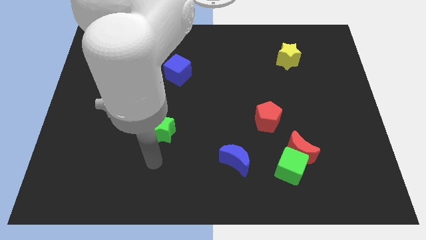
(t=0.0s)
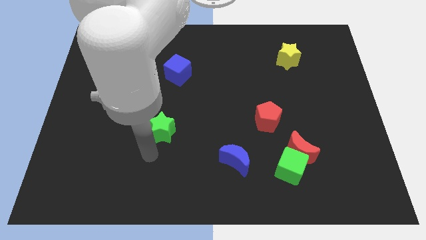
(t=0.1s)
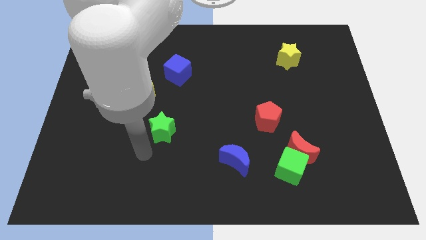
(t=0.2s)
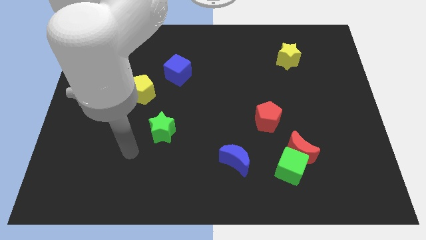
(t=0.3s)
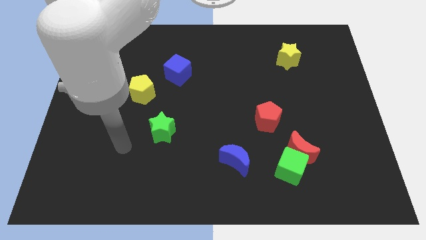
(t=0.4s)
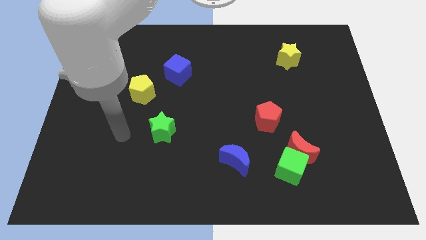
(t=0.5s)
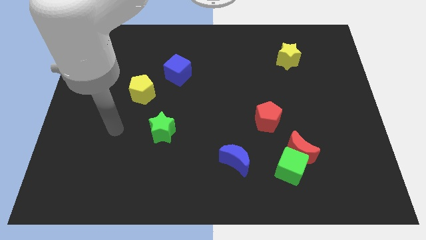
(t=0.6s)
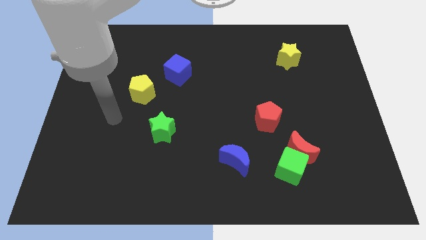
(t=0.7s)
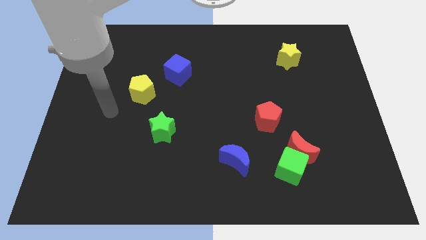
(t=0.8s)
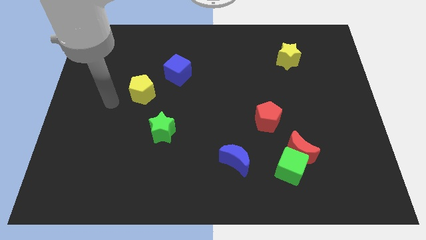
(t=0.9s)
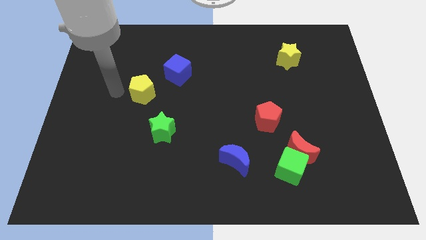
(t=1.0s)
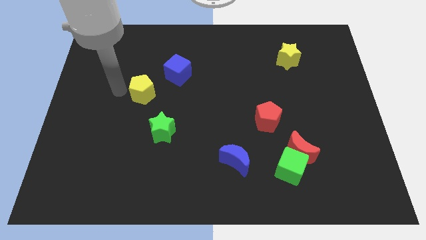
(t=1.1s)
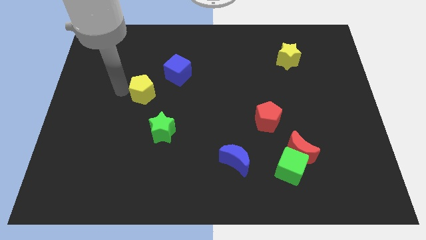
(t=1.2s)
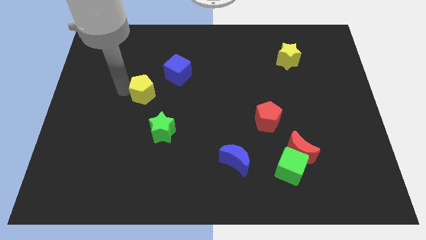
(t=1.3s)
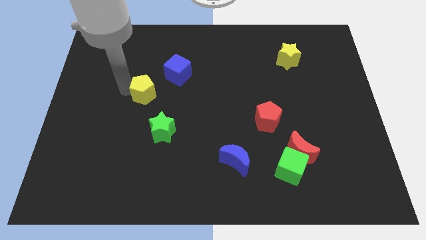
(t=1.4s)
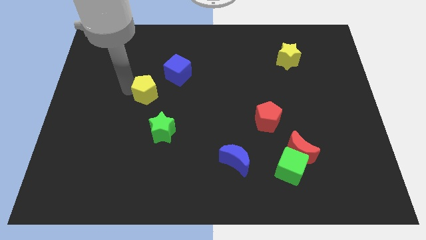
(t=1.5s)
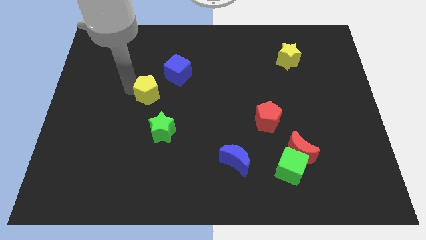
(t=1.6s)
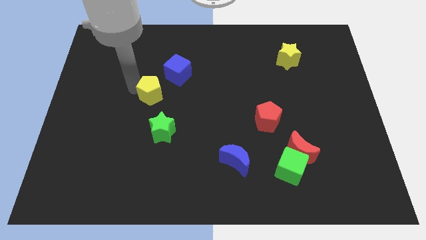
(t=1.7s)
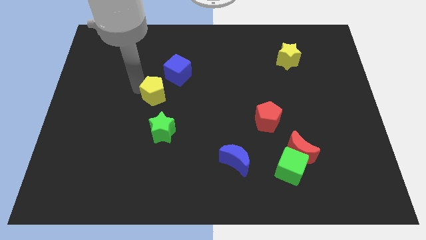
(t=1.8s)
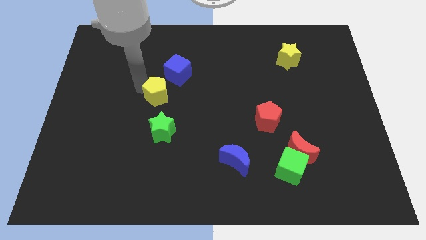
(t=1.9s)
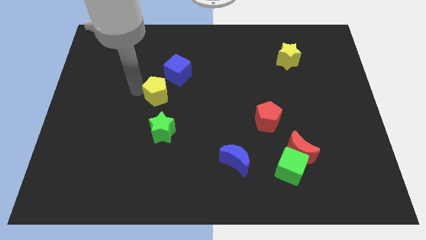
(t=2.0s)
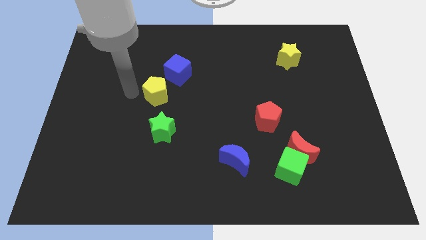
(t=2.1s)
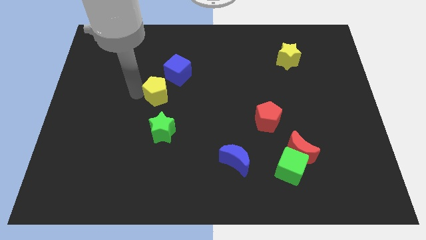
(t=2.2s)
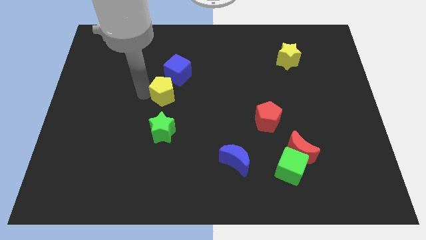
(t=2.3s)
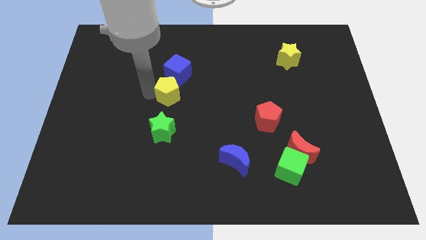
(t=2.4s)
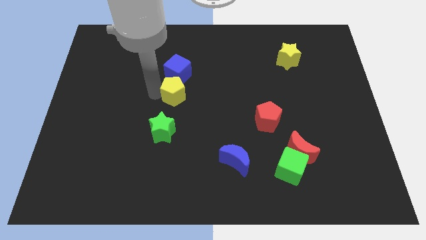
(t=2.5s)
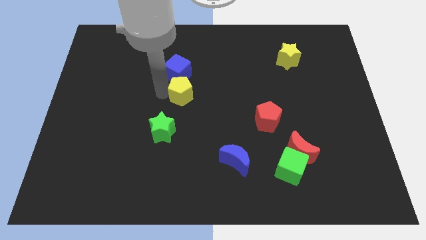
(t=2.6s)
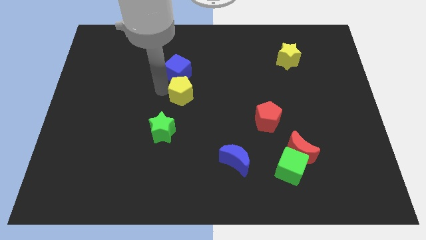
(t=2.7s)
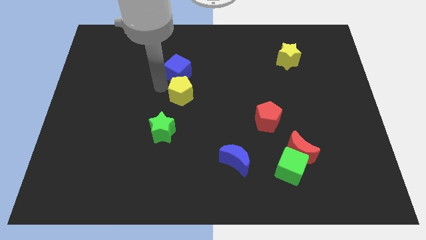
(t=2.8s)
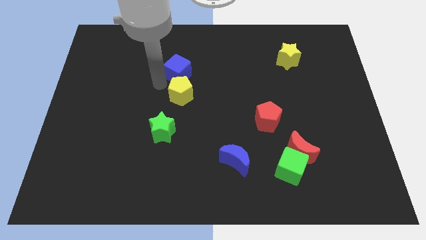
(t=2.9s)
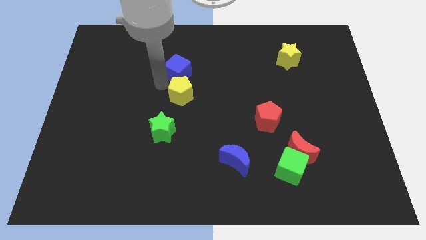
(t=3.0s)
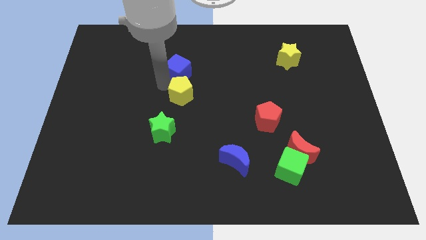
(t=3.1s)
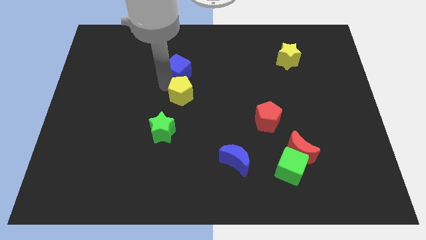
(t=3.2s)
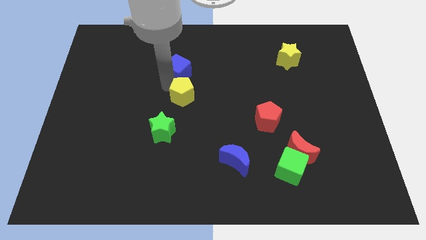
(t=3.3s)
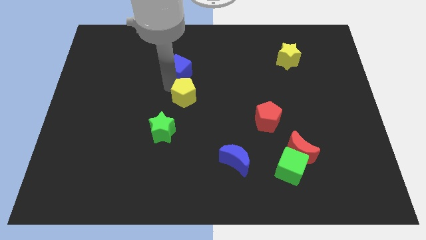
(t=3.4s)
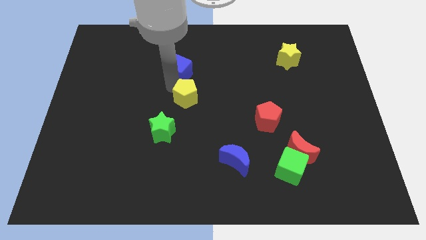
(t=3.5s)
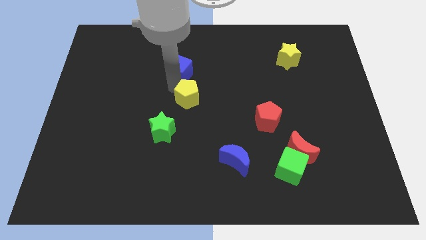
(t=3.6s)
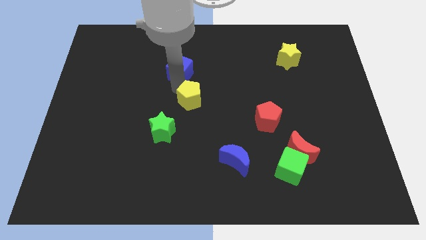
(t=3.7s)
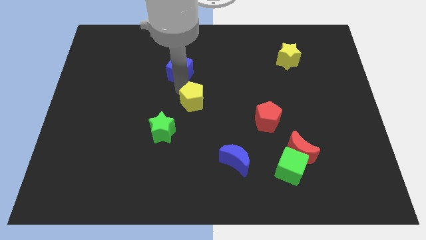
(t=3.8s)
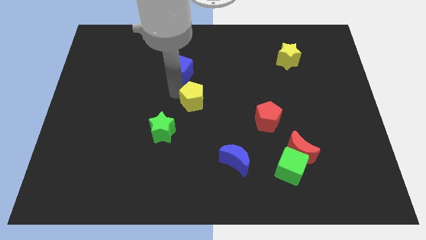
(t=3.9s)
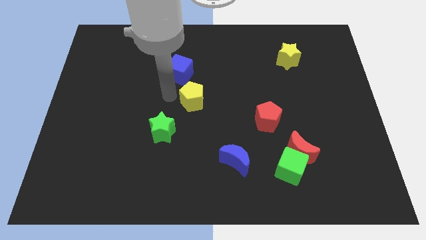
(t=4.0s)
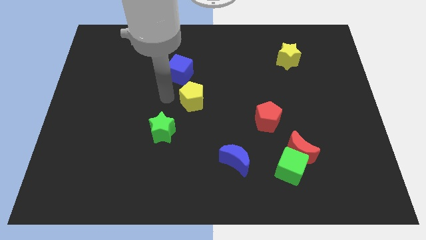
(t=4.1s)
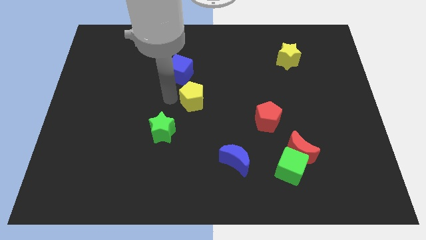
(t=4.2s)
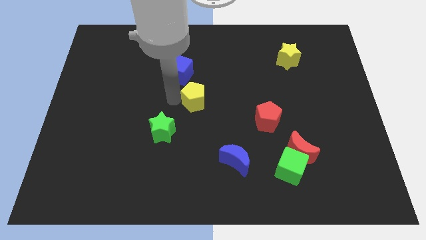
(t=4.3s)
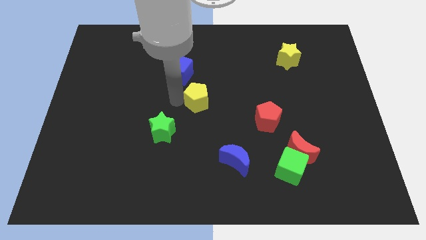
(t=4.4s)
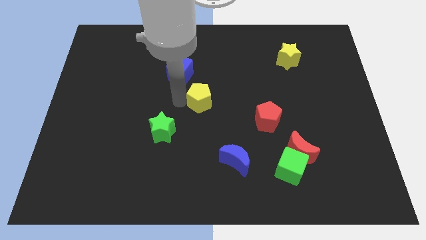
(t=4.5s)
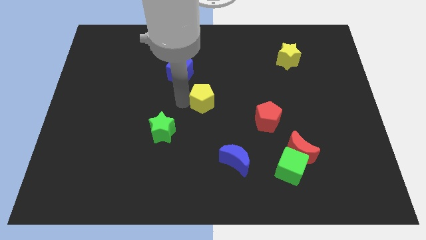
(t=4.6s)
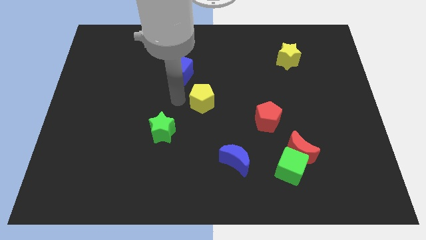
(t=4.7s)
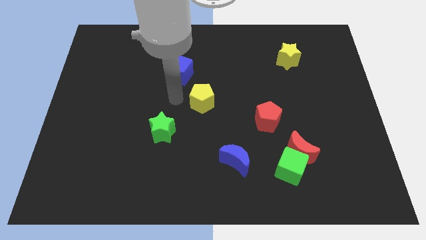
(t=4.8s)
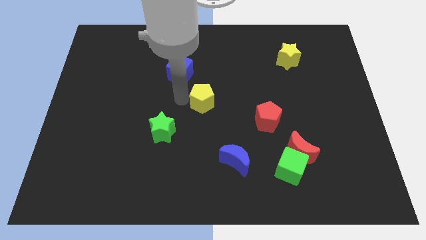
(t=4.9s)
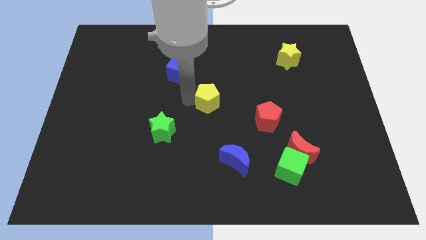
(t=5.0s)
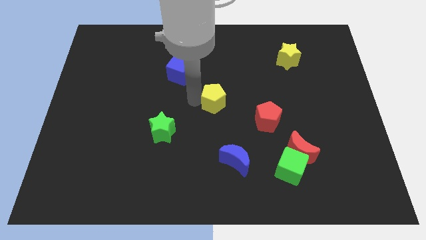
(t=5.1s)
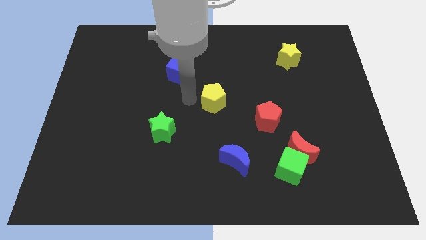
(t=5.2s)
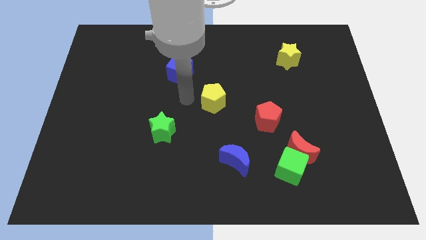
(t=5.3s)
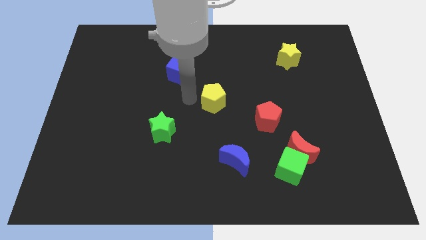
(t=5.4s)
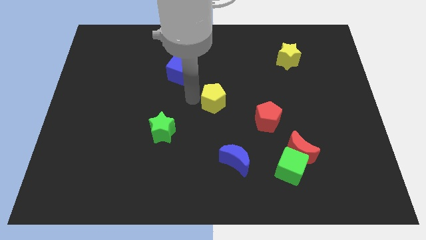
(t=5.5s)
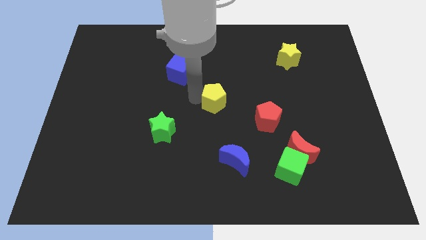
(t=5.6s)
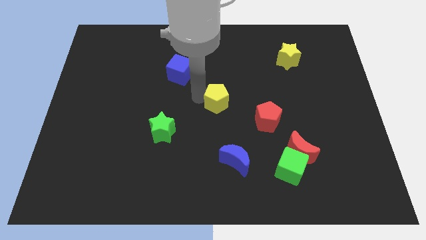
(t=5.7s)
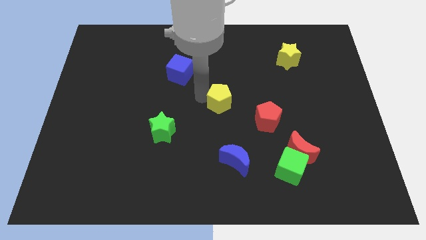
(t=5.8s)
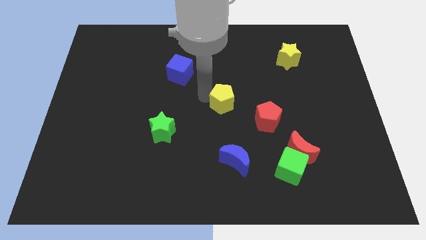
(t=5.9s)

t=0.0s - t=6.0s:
move the yellow pentagon to the top left of the red pentagon

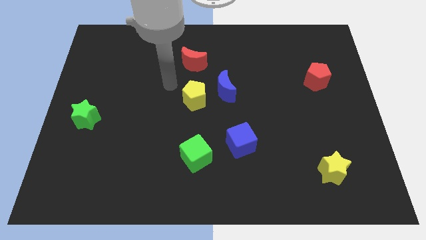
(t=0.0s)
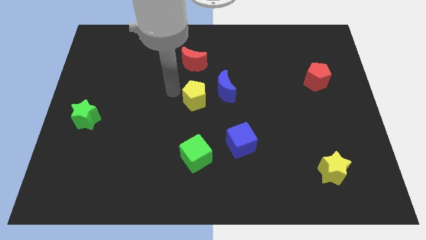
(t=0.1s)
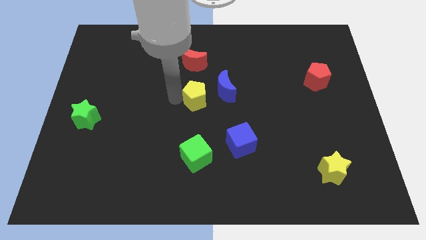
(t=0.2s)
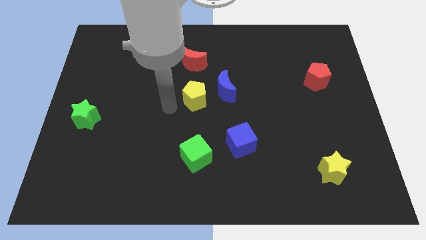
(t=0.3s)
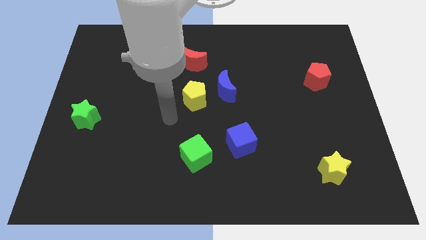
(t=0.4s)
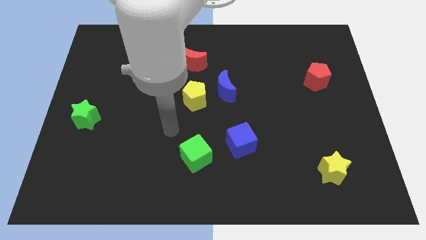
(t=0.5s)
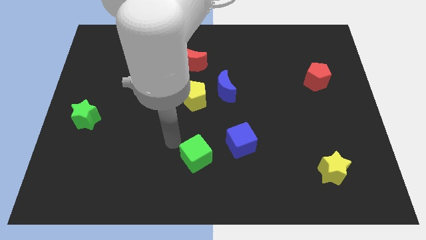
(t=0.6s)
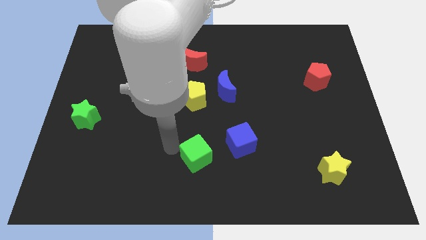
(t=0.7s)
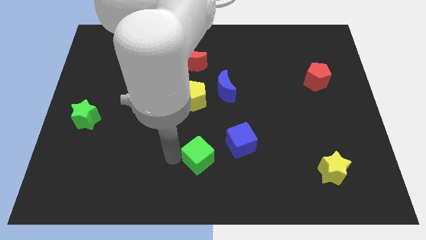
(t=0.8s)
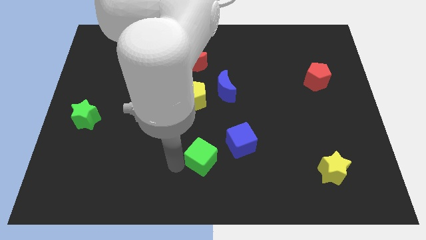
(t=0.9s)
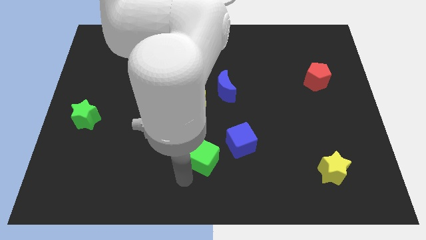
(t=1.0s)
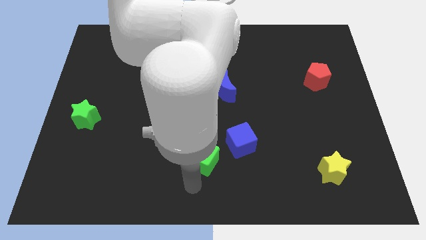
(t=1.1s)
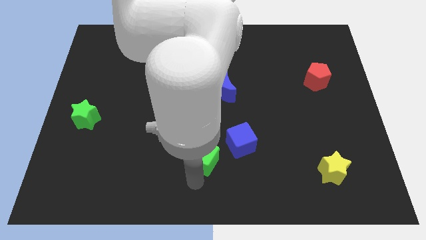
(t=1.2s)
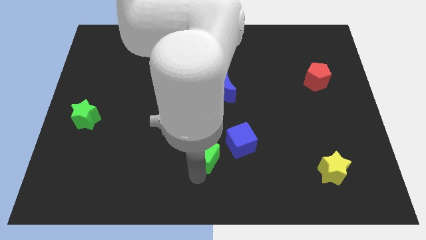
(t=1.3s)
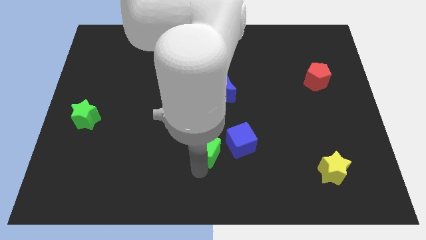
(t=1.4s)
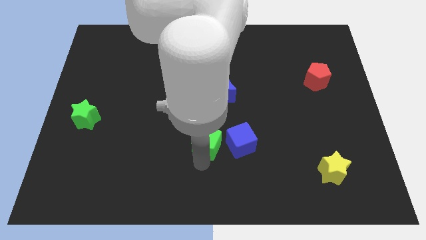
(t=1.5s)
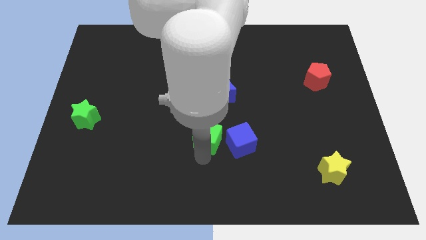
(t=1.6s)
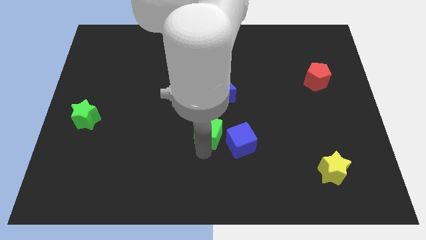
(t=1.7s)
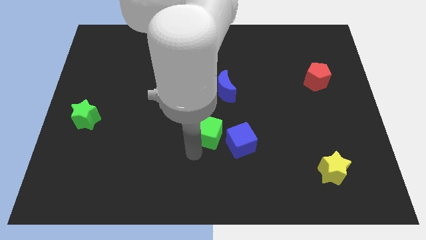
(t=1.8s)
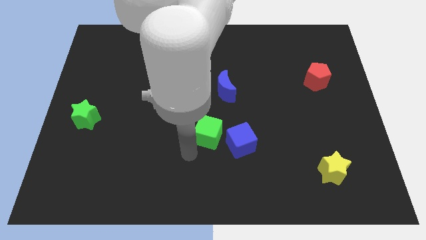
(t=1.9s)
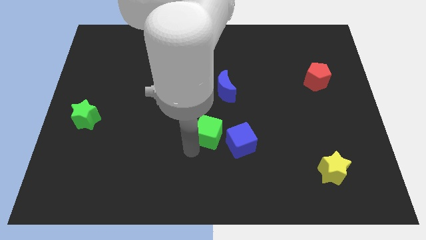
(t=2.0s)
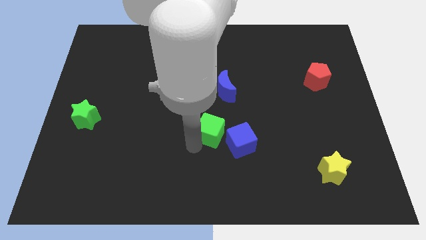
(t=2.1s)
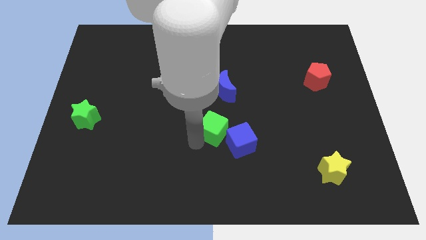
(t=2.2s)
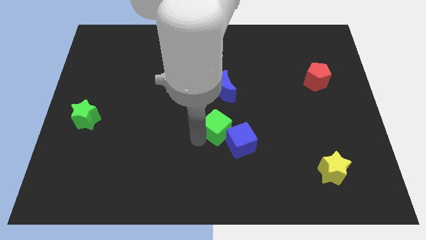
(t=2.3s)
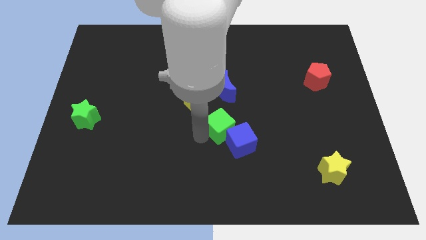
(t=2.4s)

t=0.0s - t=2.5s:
move the green cube to the top of the blue cube
